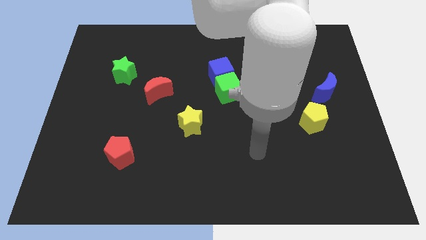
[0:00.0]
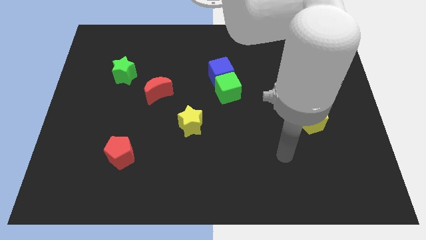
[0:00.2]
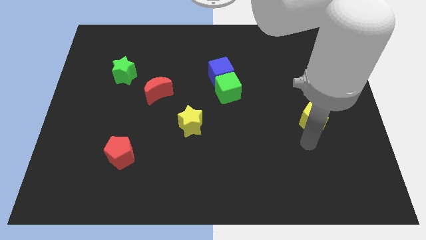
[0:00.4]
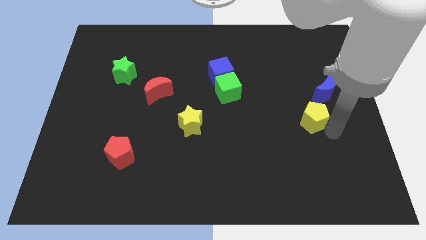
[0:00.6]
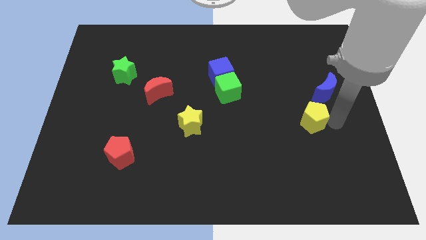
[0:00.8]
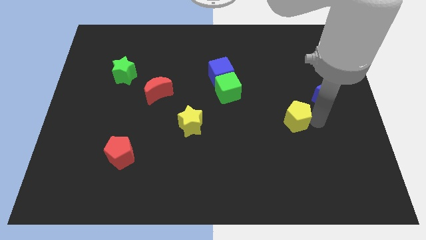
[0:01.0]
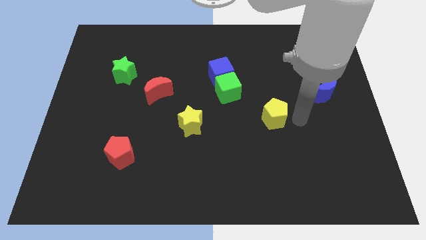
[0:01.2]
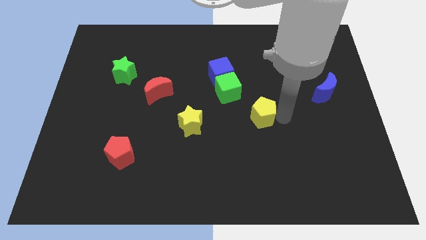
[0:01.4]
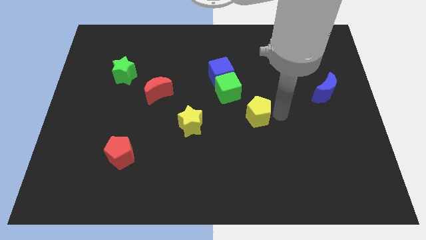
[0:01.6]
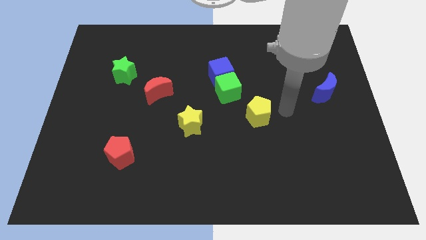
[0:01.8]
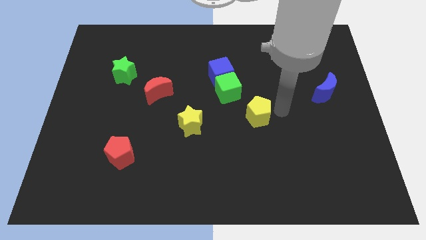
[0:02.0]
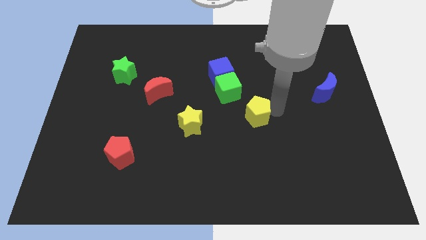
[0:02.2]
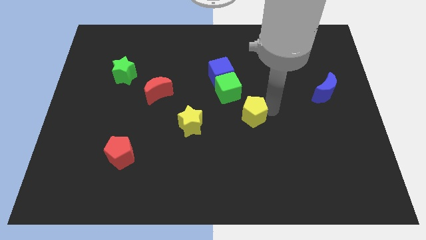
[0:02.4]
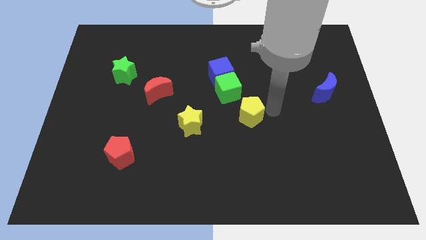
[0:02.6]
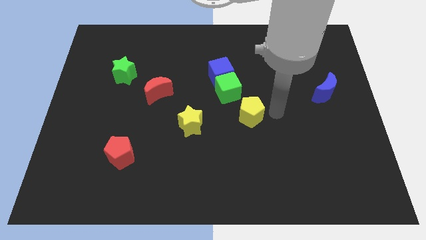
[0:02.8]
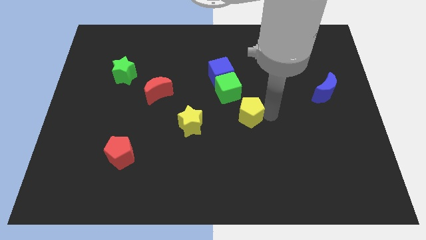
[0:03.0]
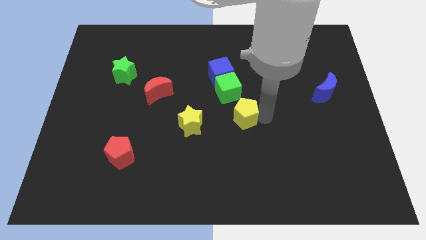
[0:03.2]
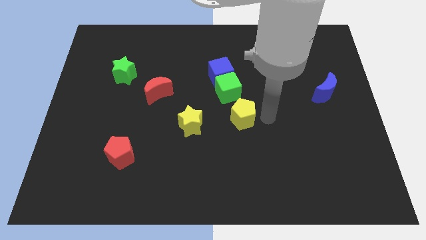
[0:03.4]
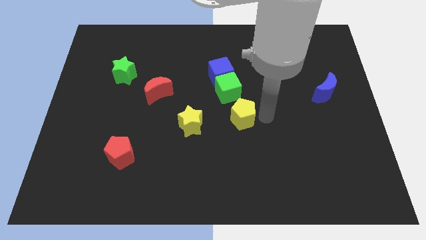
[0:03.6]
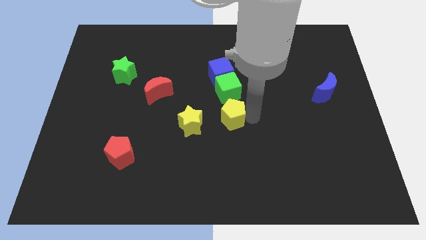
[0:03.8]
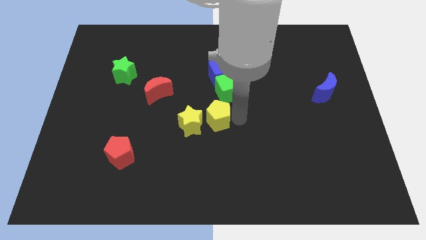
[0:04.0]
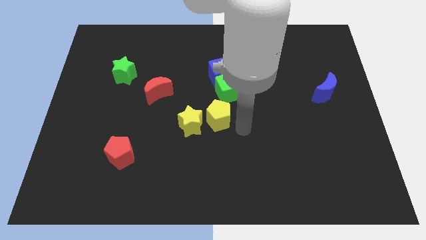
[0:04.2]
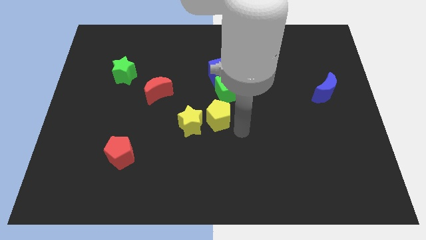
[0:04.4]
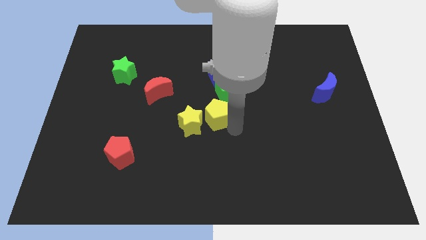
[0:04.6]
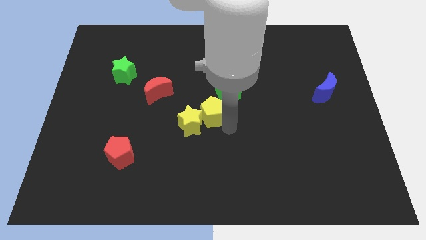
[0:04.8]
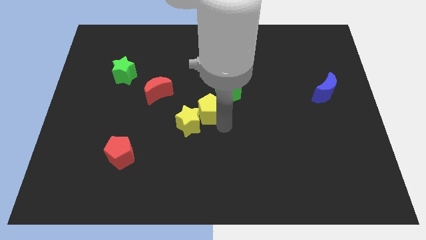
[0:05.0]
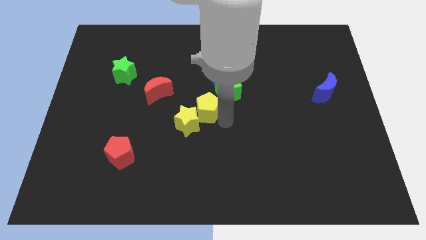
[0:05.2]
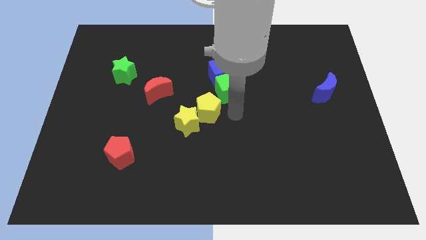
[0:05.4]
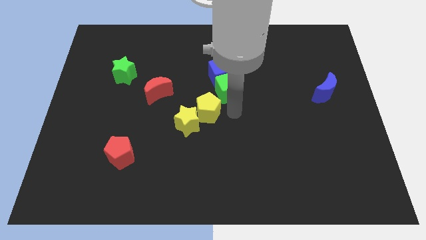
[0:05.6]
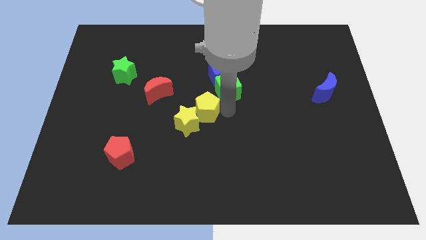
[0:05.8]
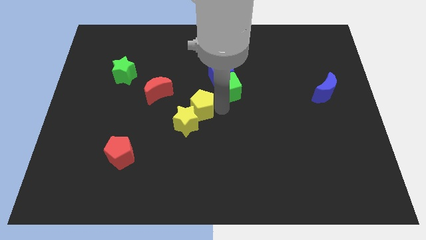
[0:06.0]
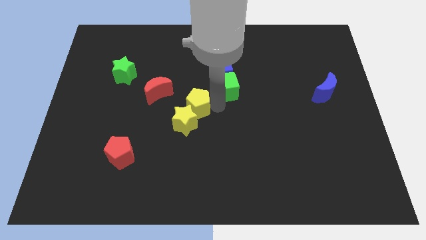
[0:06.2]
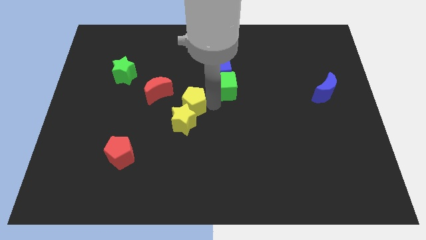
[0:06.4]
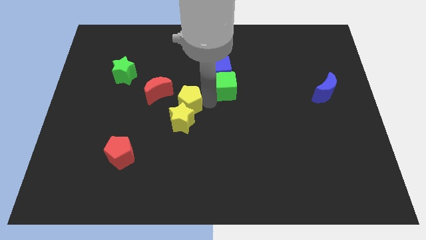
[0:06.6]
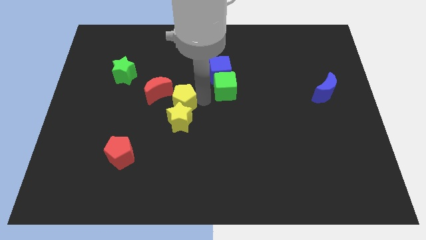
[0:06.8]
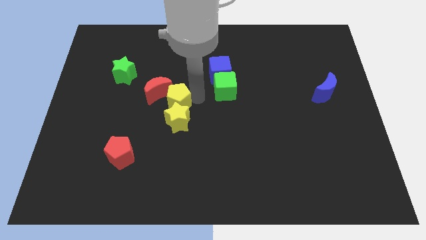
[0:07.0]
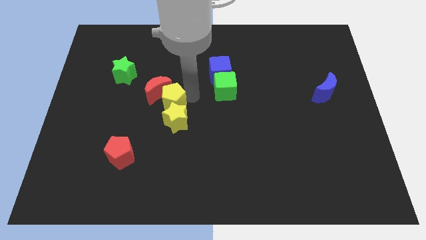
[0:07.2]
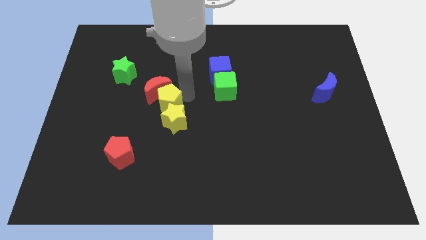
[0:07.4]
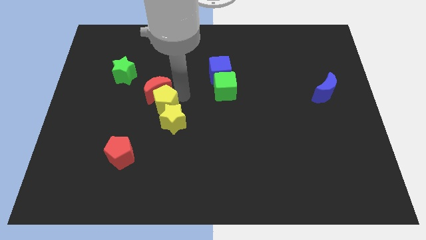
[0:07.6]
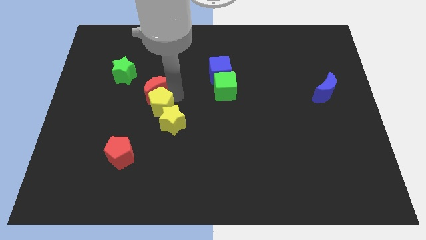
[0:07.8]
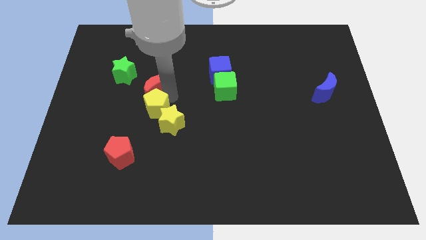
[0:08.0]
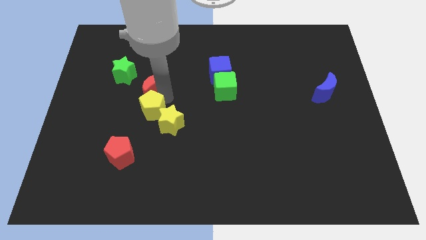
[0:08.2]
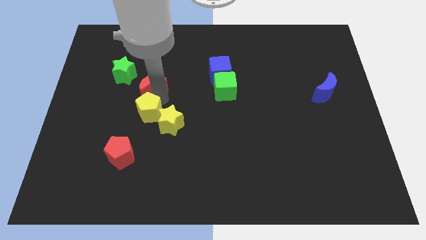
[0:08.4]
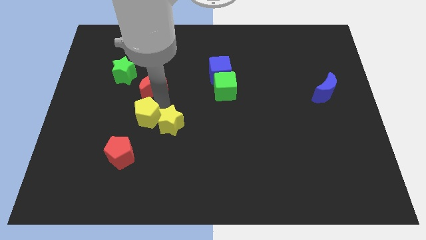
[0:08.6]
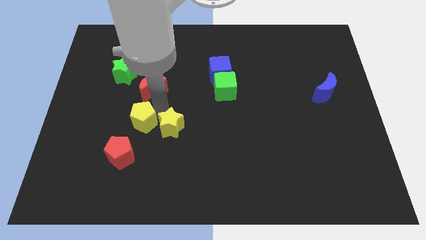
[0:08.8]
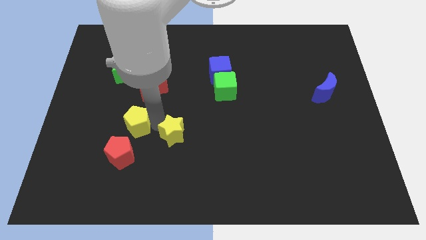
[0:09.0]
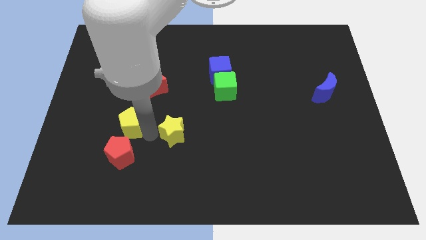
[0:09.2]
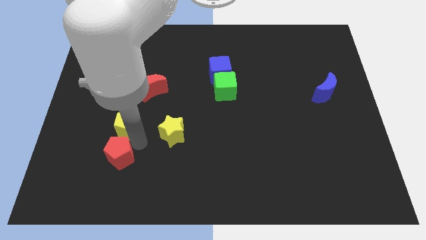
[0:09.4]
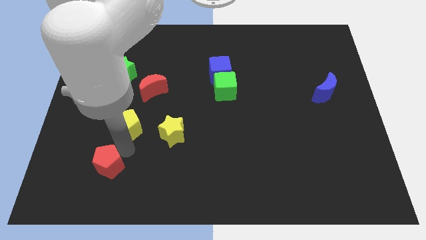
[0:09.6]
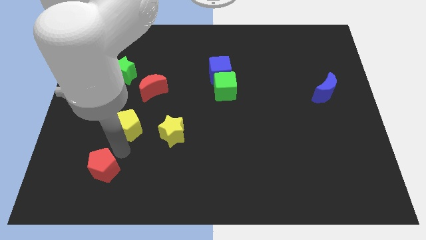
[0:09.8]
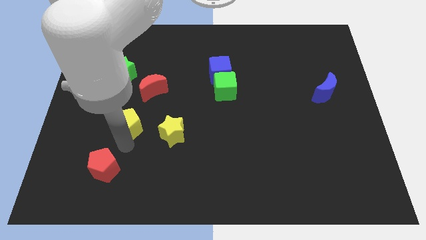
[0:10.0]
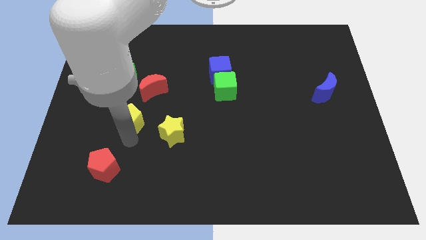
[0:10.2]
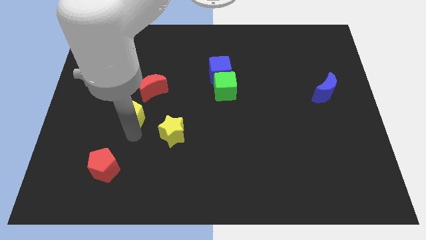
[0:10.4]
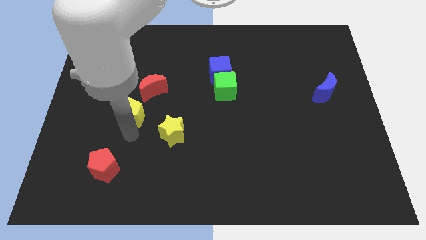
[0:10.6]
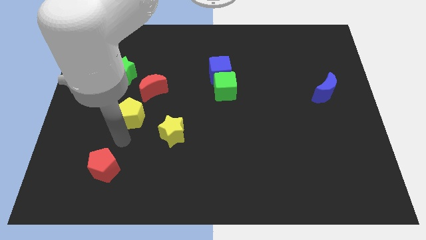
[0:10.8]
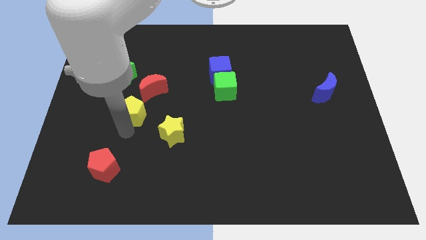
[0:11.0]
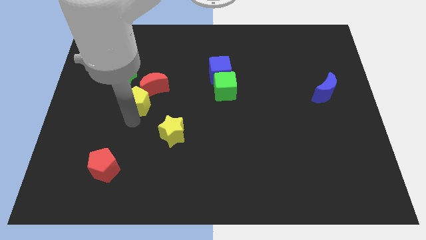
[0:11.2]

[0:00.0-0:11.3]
put the yellow pentagon to the bottom right of the green star
